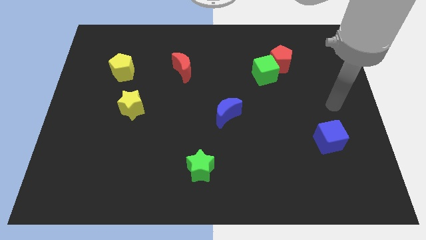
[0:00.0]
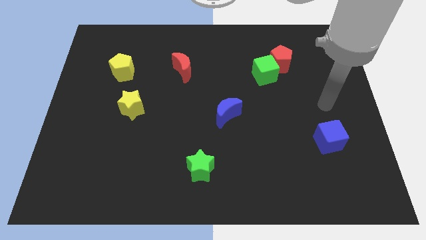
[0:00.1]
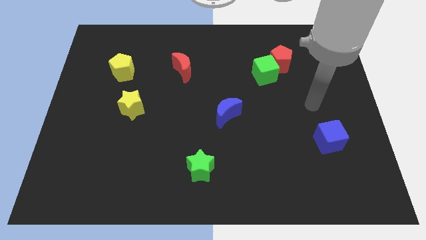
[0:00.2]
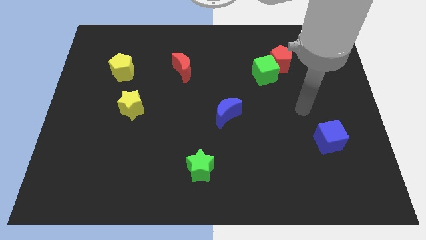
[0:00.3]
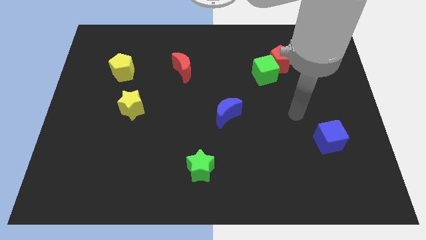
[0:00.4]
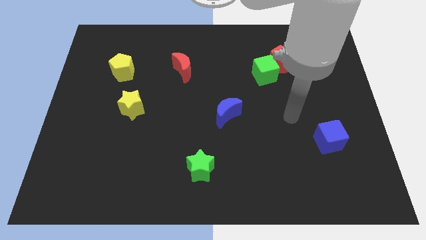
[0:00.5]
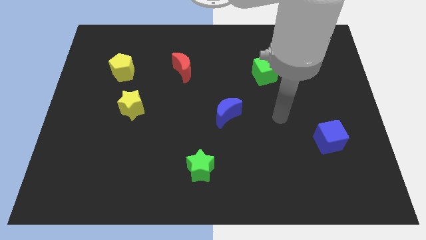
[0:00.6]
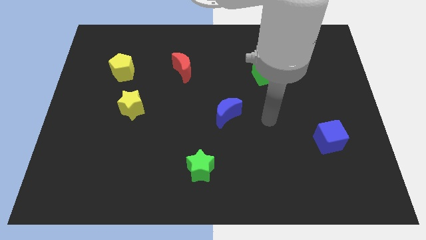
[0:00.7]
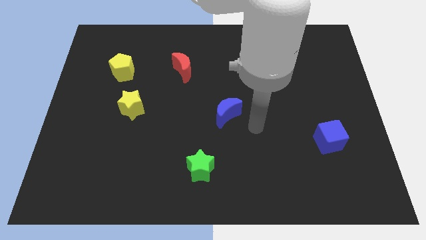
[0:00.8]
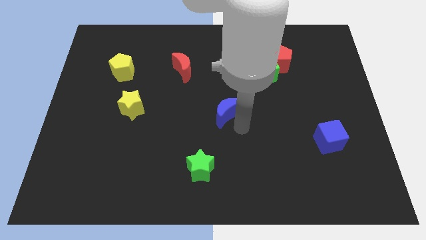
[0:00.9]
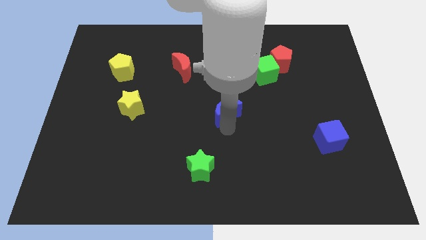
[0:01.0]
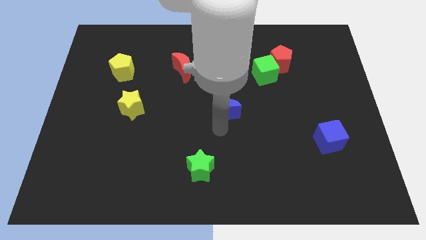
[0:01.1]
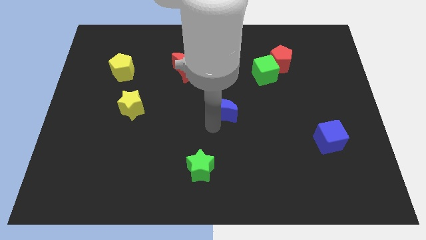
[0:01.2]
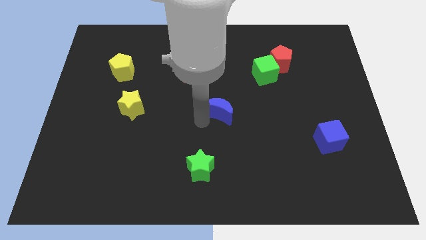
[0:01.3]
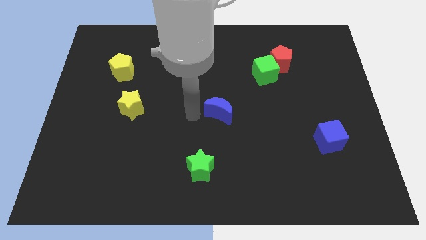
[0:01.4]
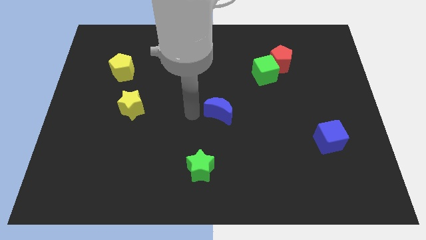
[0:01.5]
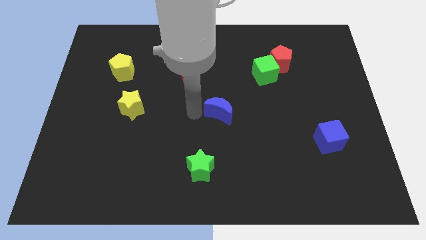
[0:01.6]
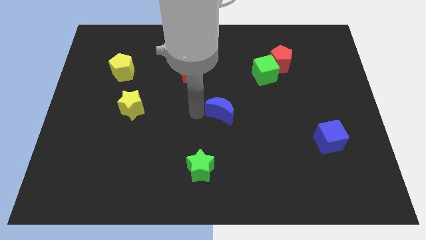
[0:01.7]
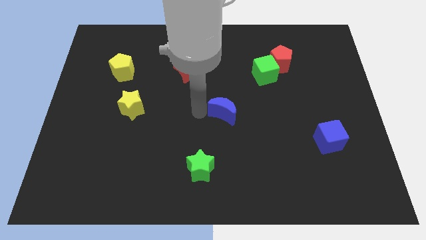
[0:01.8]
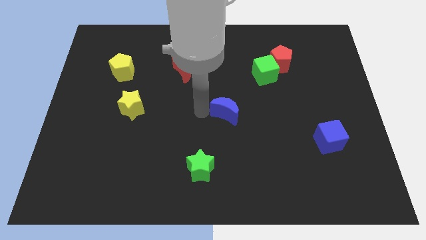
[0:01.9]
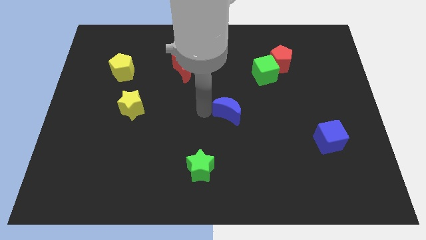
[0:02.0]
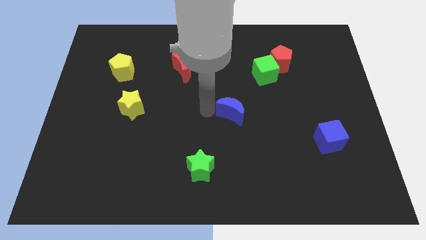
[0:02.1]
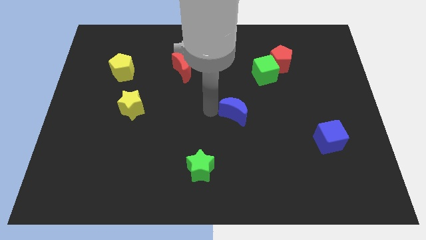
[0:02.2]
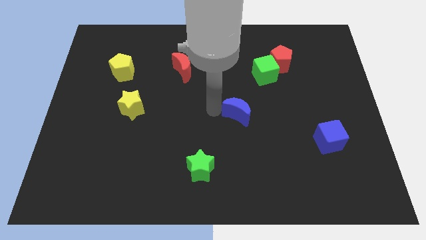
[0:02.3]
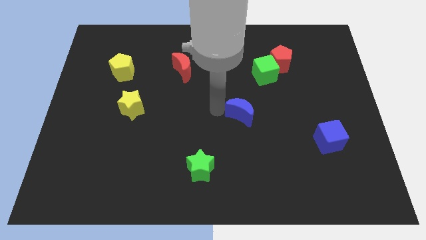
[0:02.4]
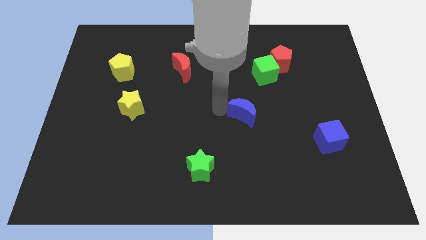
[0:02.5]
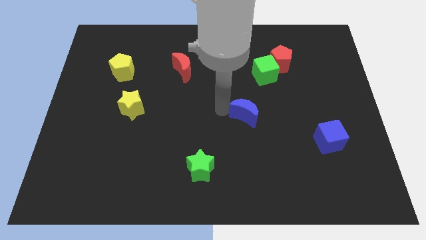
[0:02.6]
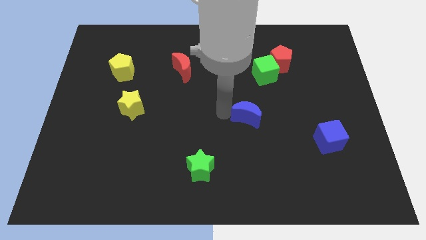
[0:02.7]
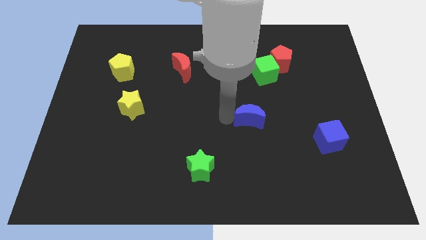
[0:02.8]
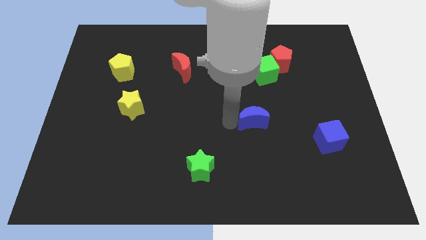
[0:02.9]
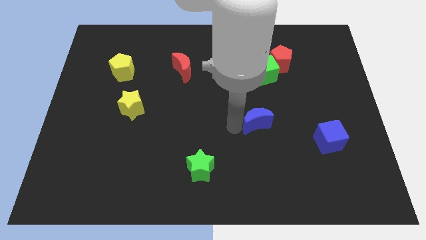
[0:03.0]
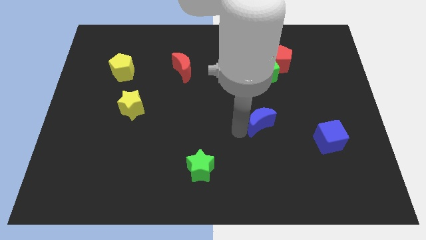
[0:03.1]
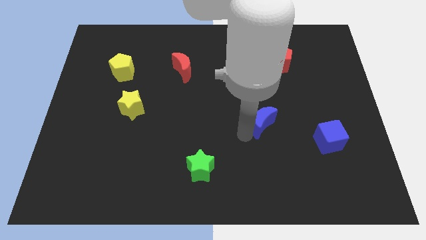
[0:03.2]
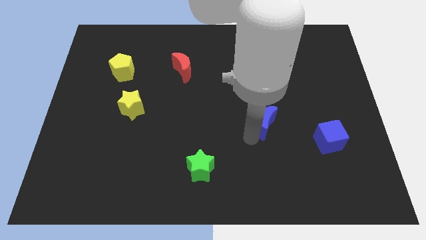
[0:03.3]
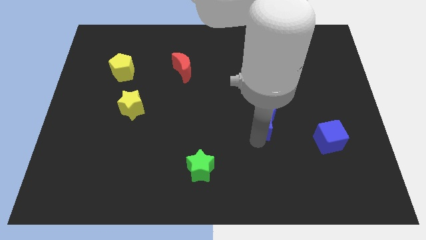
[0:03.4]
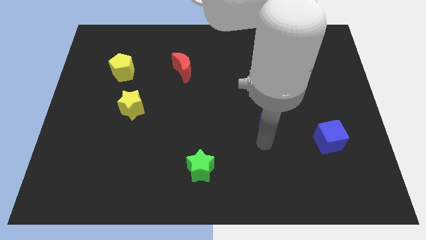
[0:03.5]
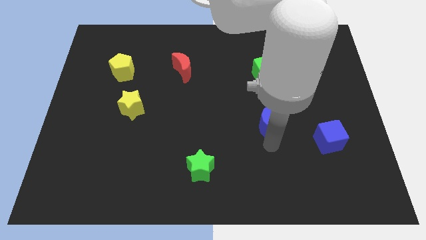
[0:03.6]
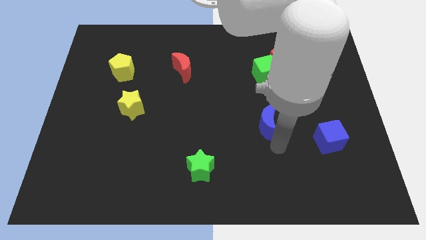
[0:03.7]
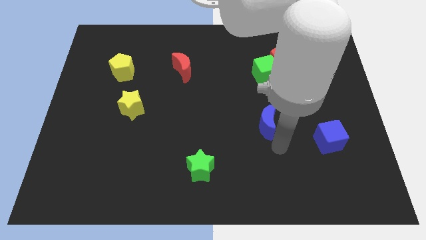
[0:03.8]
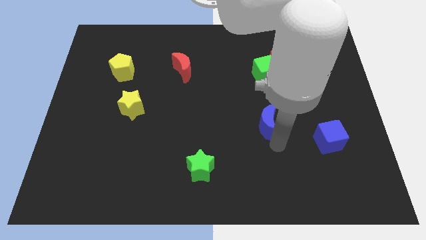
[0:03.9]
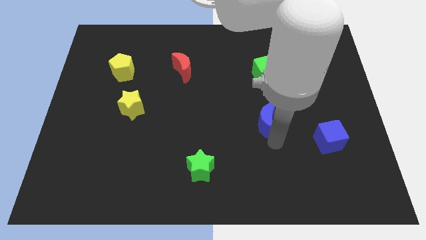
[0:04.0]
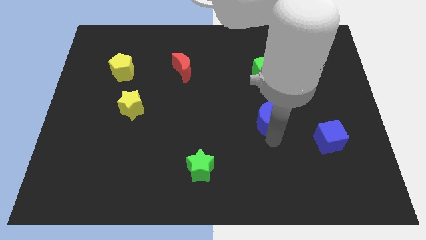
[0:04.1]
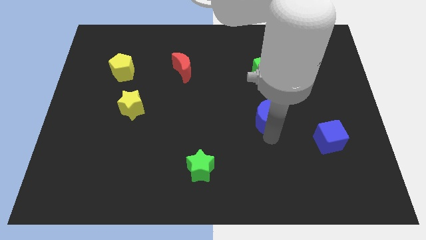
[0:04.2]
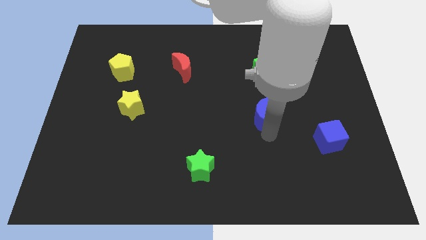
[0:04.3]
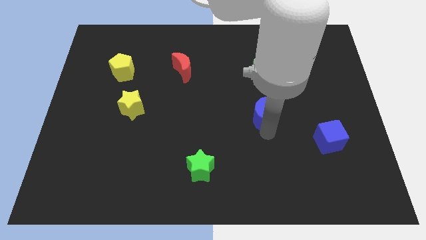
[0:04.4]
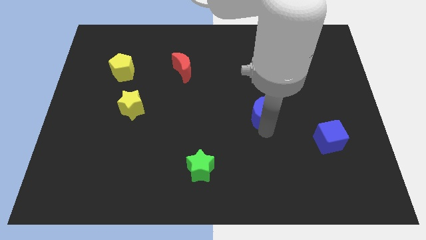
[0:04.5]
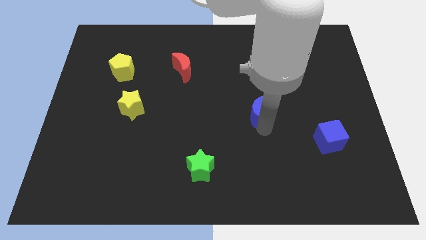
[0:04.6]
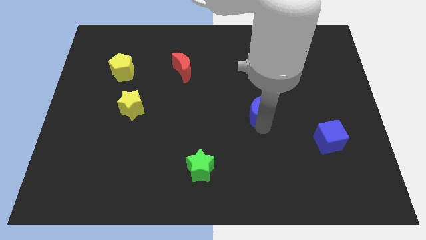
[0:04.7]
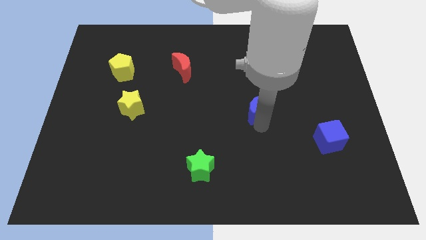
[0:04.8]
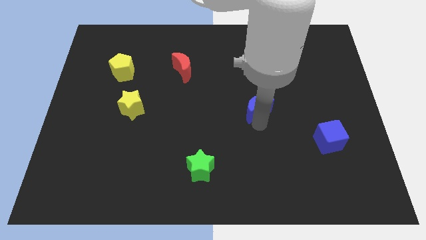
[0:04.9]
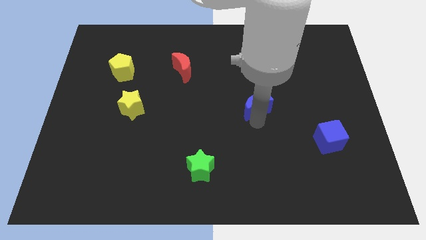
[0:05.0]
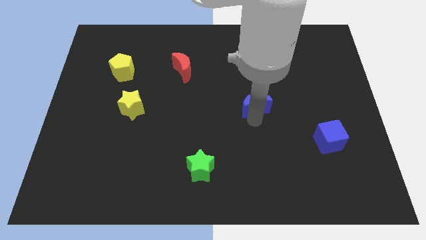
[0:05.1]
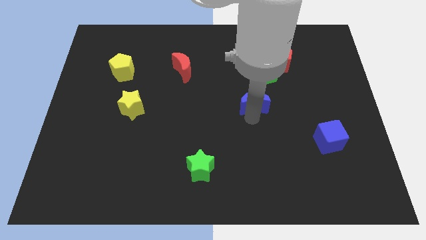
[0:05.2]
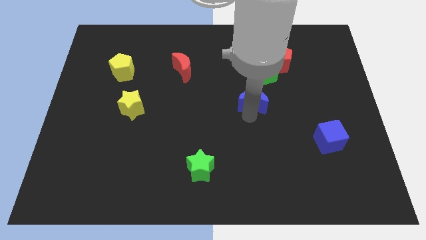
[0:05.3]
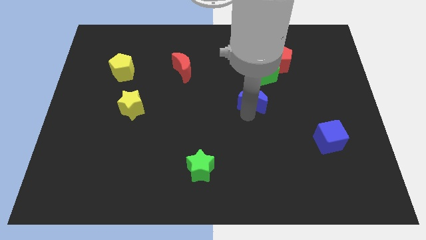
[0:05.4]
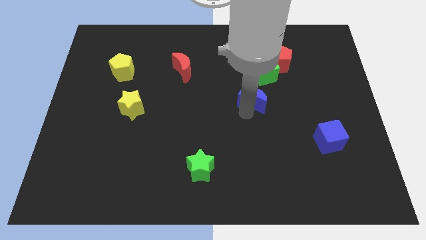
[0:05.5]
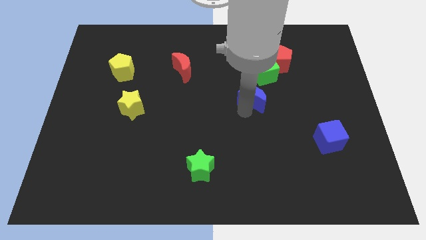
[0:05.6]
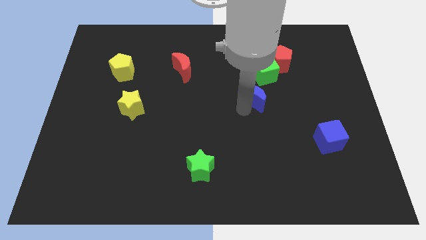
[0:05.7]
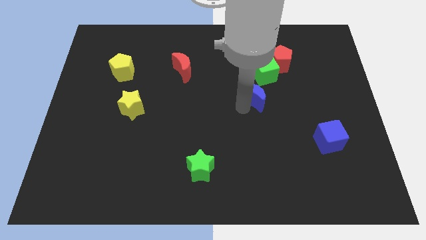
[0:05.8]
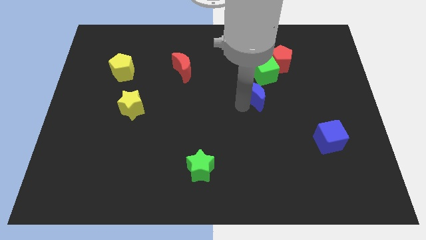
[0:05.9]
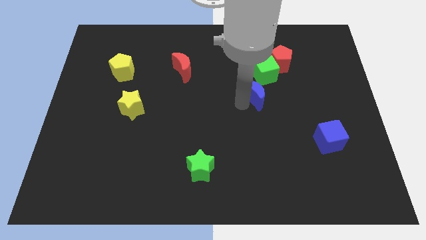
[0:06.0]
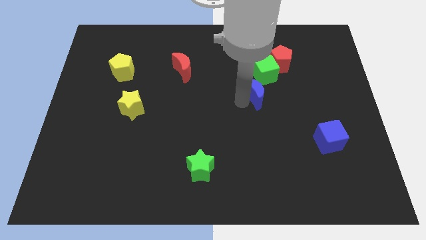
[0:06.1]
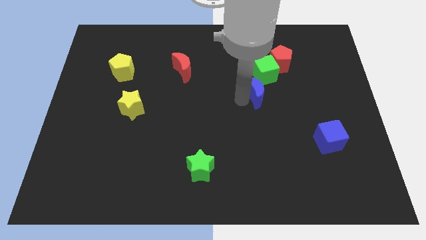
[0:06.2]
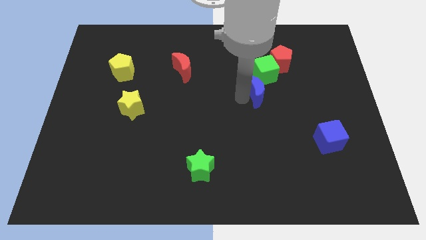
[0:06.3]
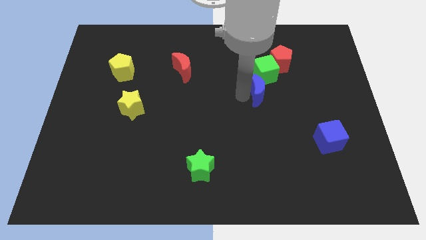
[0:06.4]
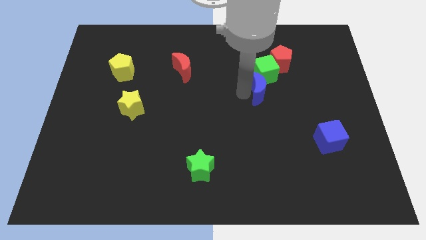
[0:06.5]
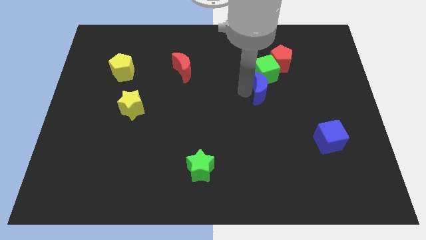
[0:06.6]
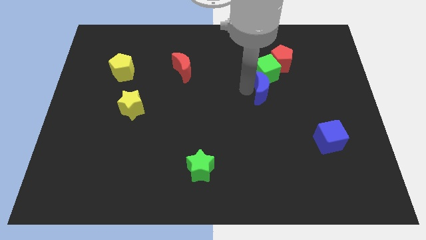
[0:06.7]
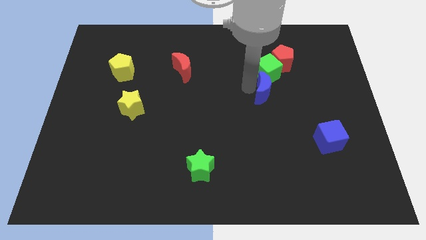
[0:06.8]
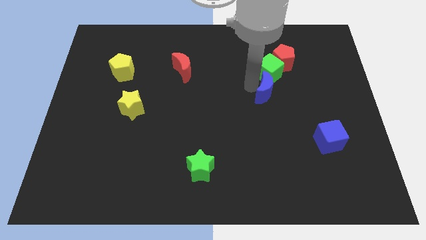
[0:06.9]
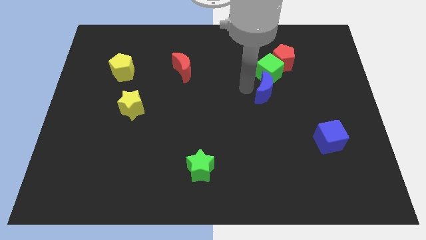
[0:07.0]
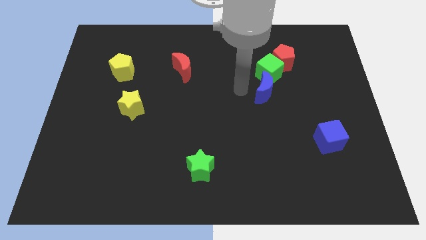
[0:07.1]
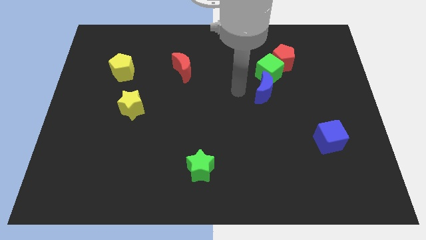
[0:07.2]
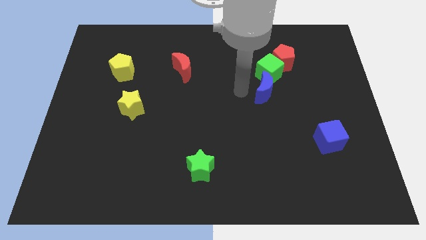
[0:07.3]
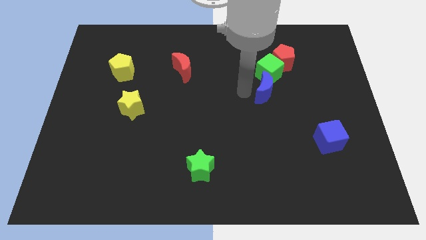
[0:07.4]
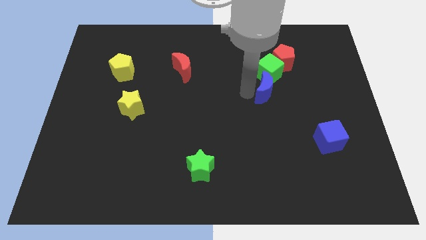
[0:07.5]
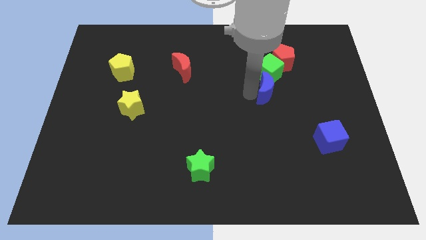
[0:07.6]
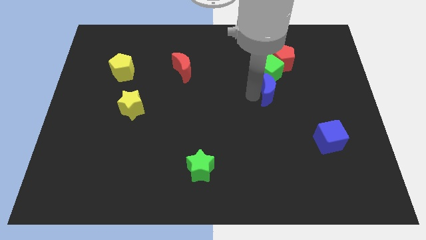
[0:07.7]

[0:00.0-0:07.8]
slide the blue moon to the bottom side of the red pentagon
